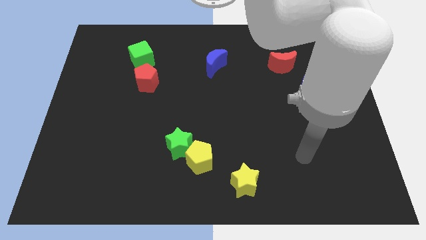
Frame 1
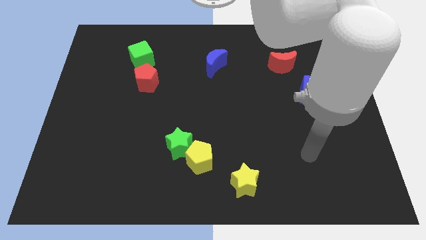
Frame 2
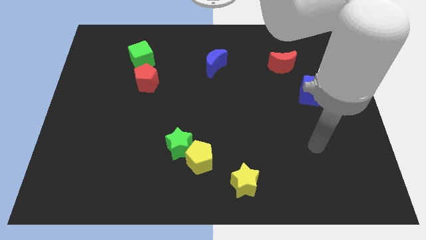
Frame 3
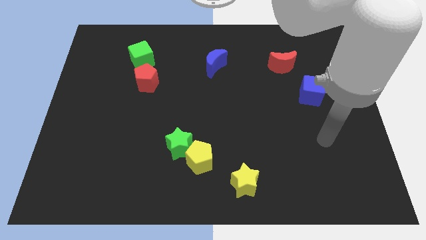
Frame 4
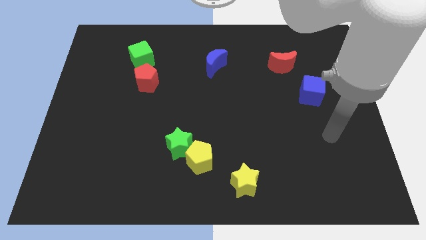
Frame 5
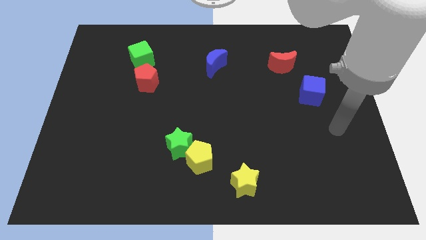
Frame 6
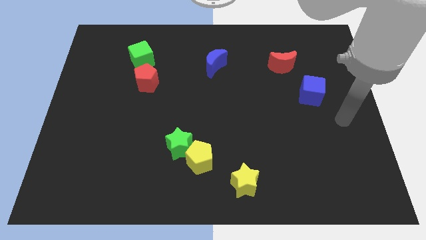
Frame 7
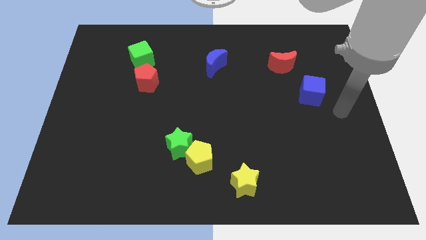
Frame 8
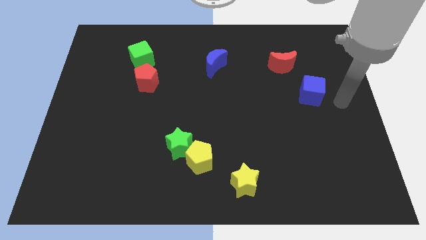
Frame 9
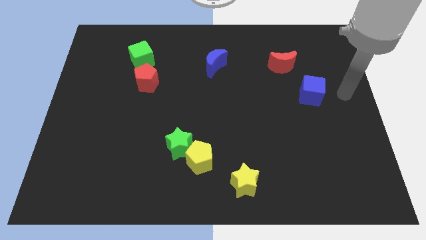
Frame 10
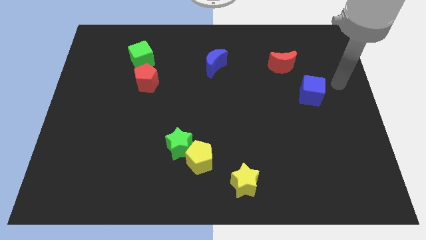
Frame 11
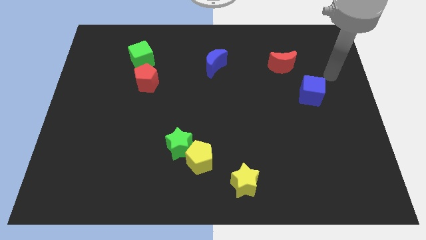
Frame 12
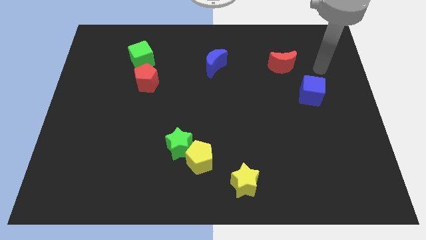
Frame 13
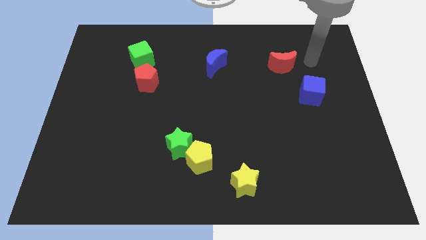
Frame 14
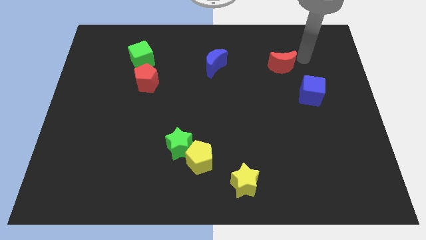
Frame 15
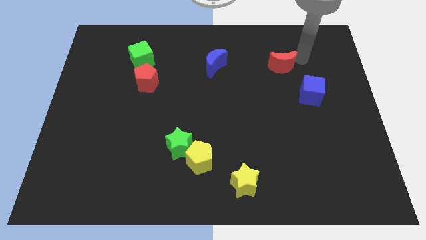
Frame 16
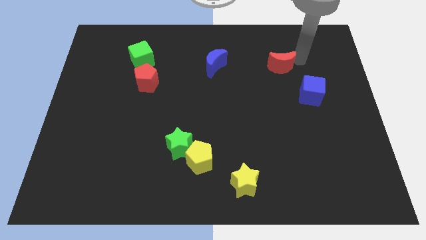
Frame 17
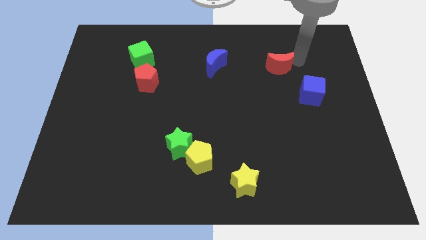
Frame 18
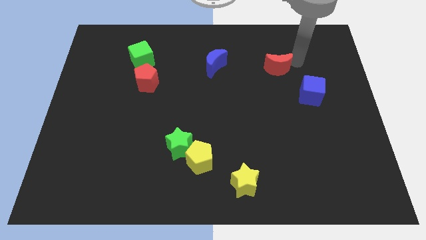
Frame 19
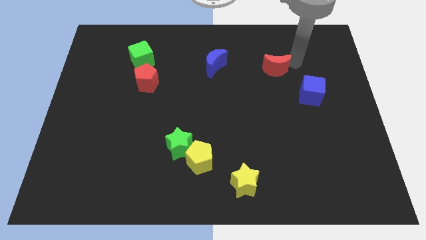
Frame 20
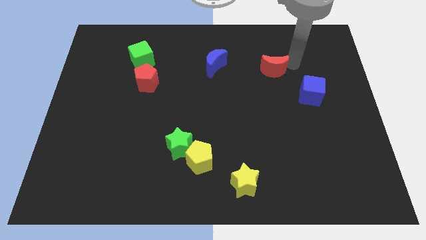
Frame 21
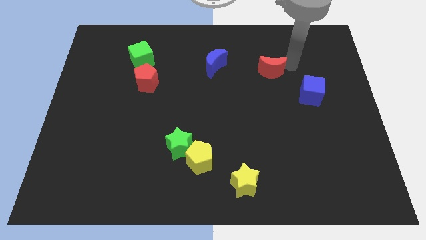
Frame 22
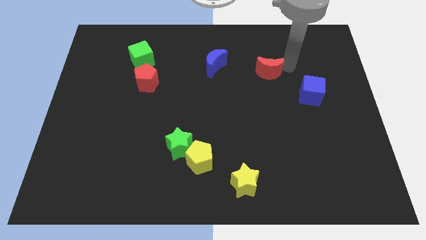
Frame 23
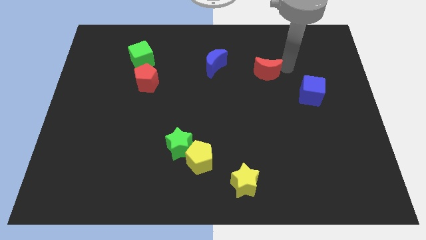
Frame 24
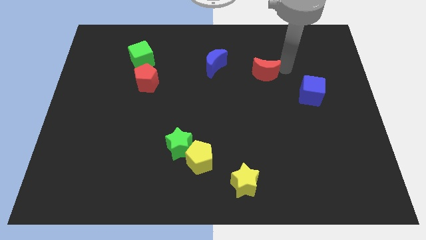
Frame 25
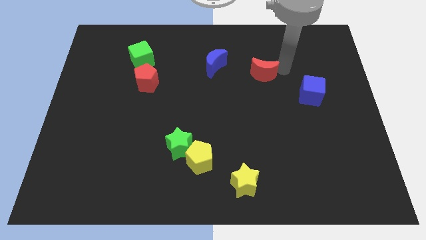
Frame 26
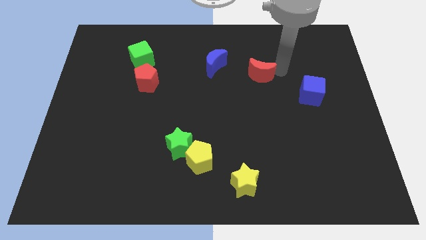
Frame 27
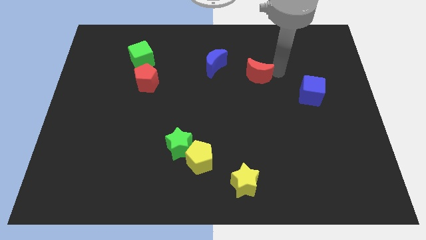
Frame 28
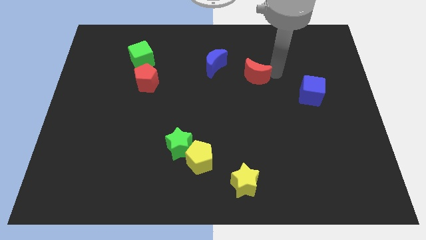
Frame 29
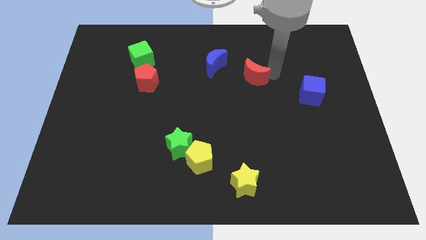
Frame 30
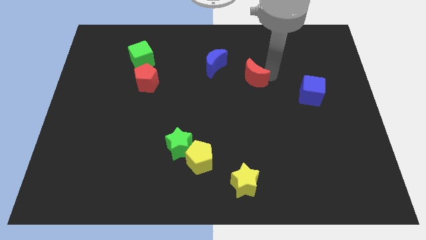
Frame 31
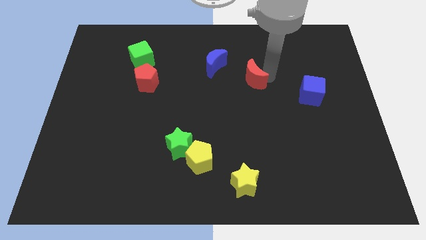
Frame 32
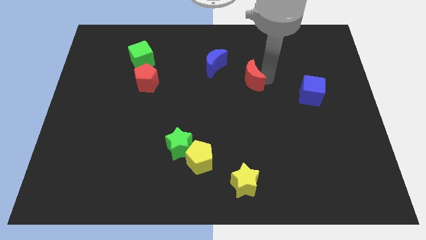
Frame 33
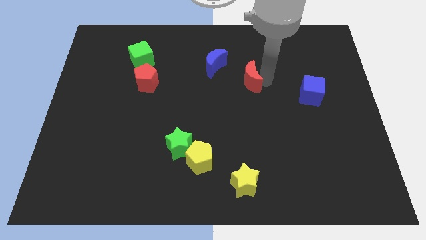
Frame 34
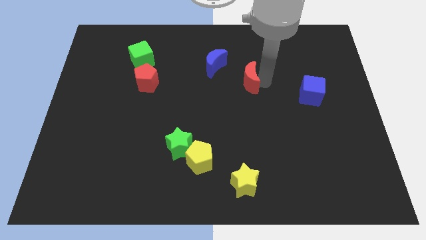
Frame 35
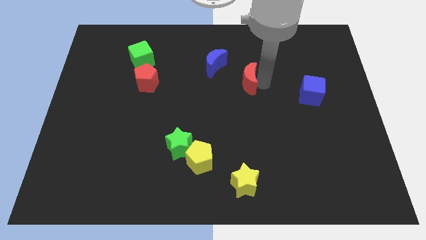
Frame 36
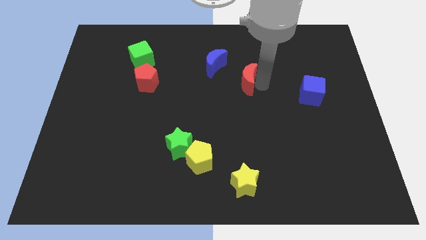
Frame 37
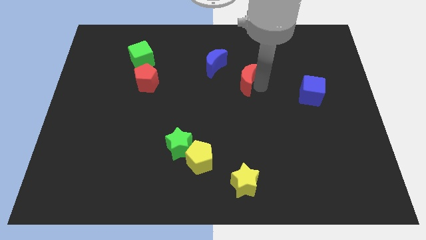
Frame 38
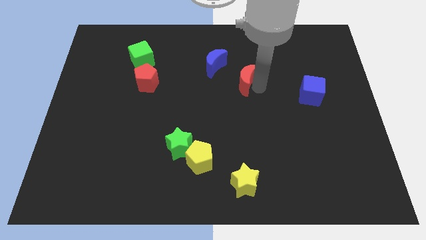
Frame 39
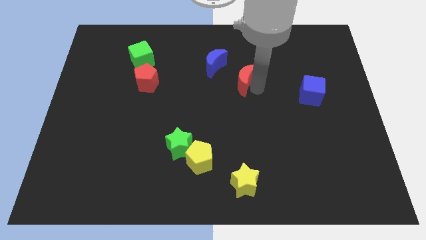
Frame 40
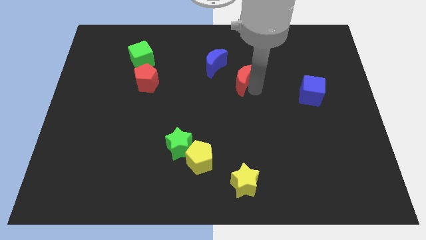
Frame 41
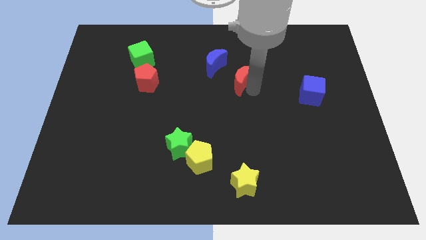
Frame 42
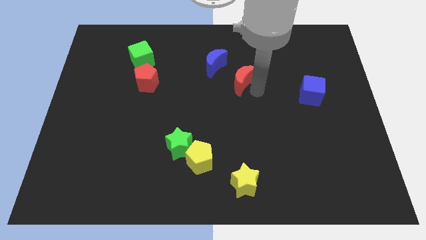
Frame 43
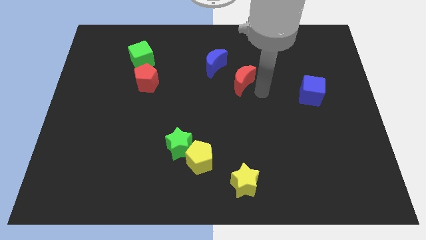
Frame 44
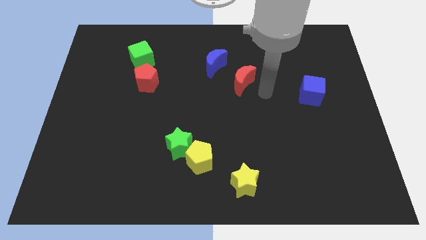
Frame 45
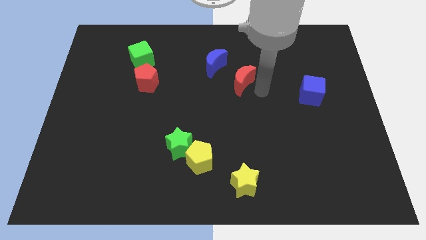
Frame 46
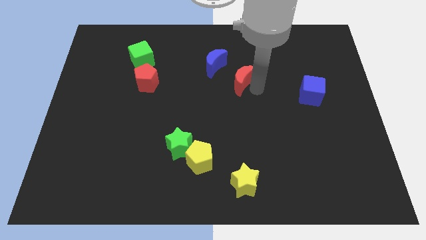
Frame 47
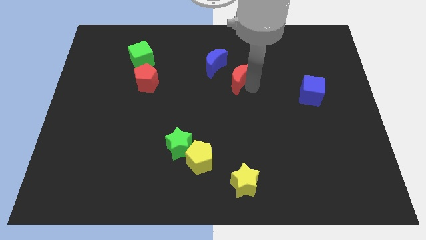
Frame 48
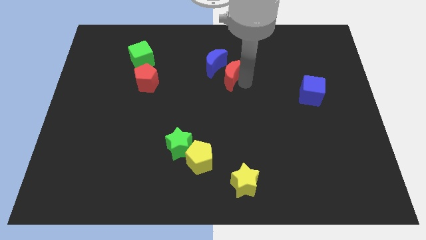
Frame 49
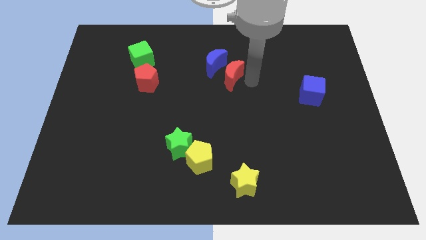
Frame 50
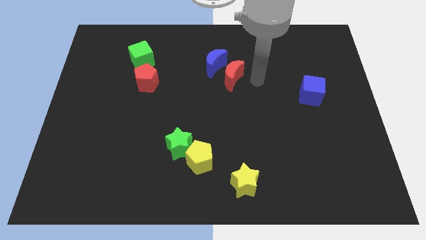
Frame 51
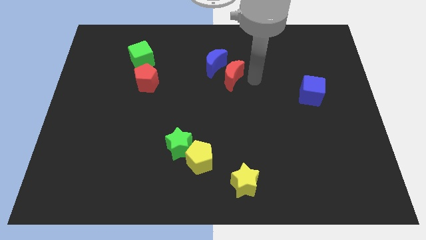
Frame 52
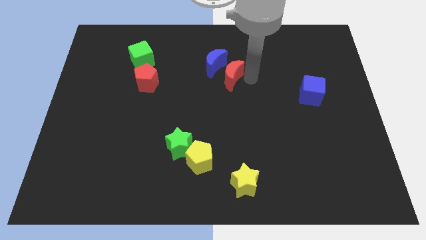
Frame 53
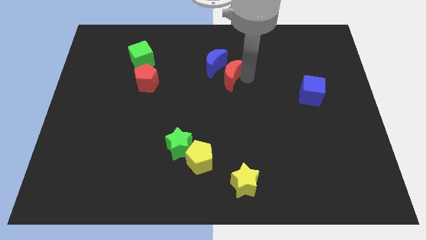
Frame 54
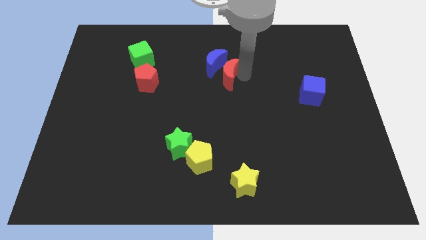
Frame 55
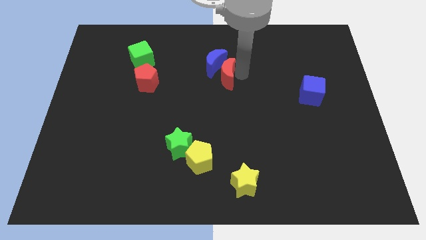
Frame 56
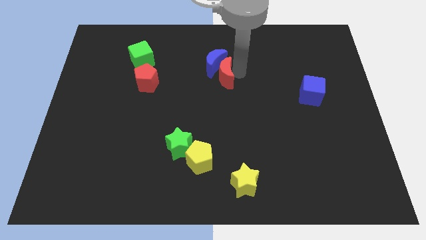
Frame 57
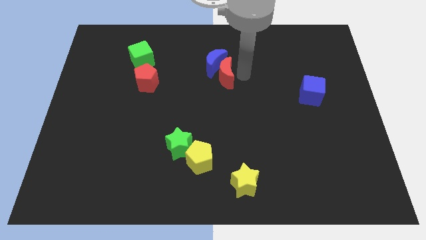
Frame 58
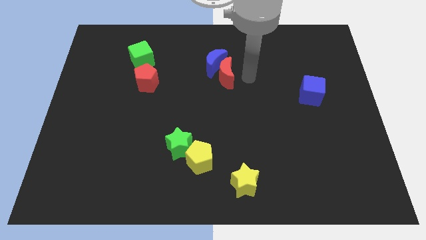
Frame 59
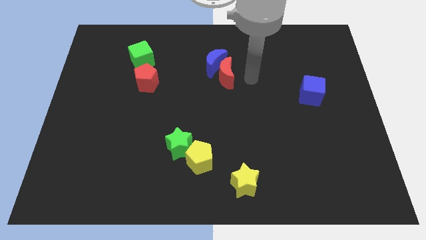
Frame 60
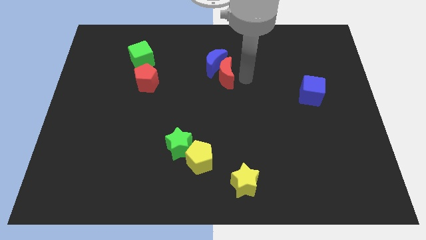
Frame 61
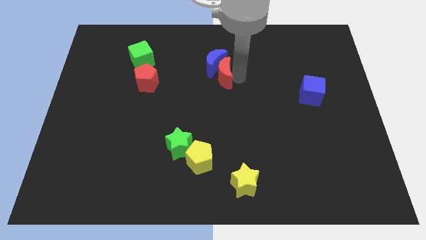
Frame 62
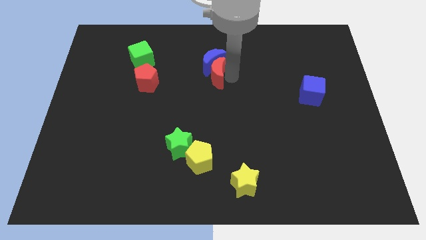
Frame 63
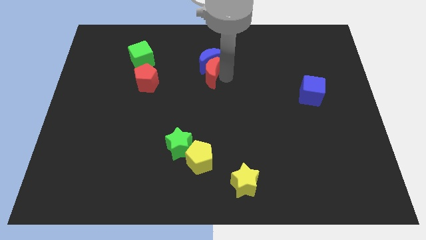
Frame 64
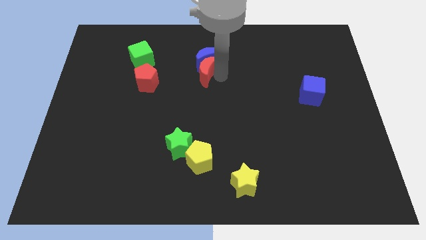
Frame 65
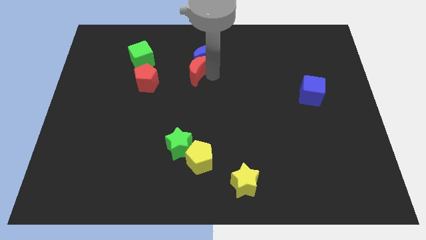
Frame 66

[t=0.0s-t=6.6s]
slide the red moon to the left

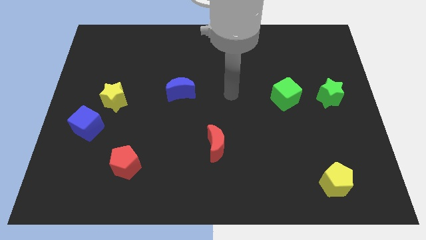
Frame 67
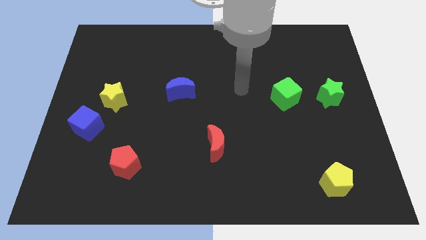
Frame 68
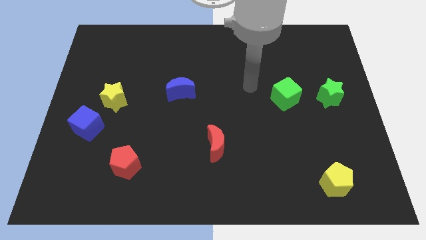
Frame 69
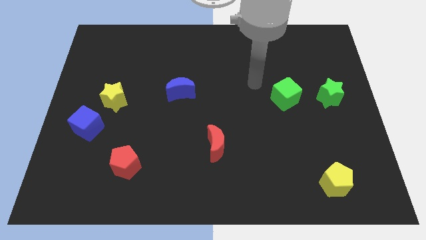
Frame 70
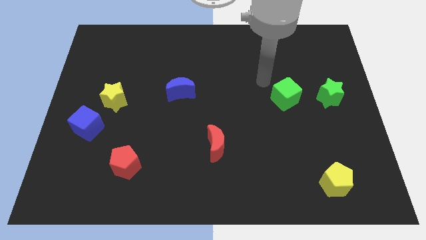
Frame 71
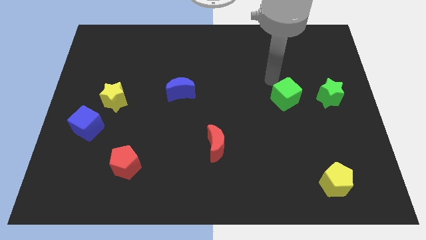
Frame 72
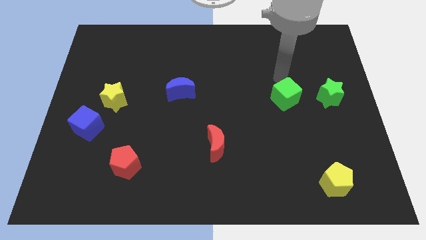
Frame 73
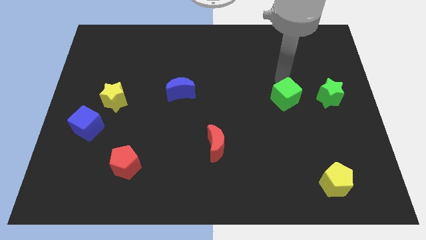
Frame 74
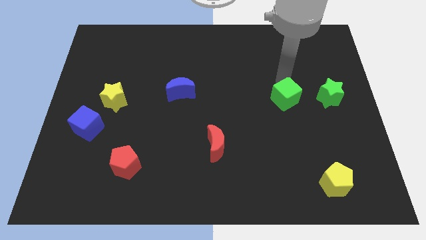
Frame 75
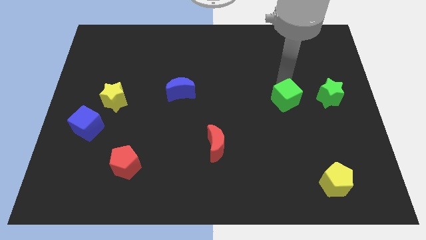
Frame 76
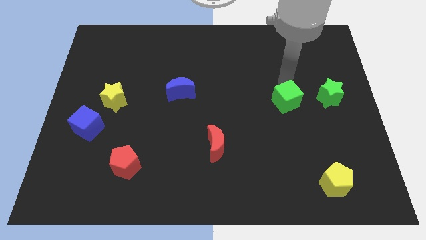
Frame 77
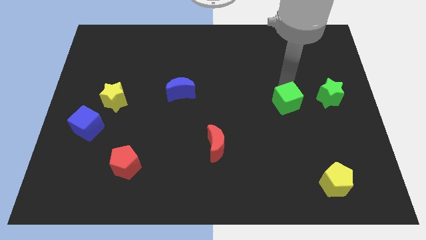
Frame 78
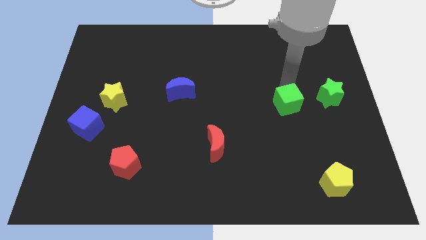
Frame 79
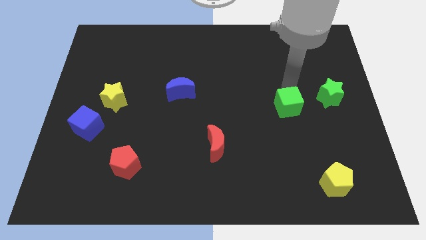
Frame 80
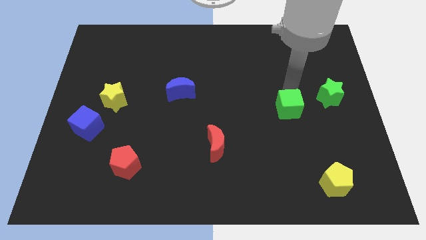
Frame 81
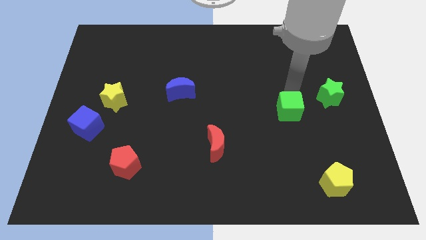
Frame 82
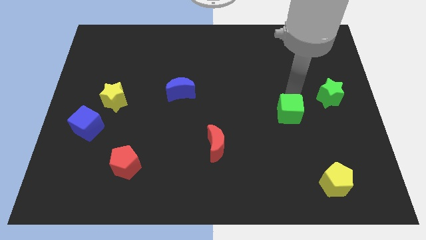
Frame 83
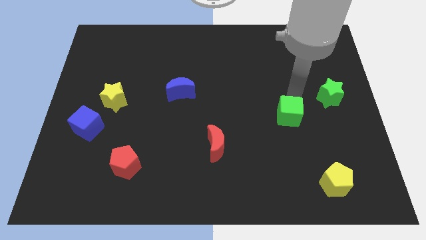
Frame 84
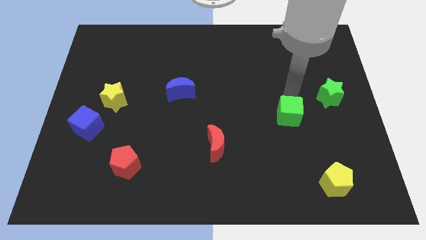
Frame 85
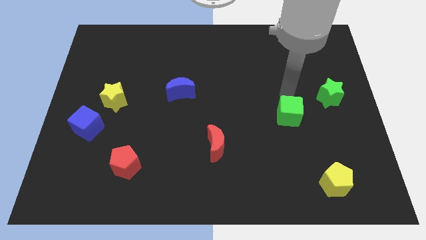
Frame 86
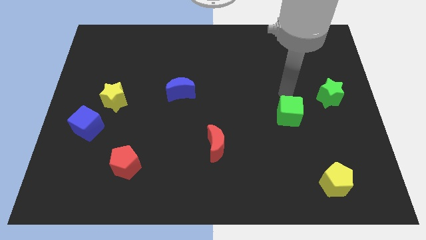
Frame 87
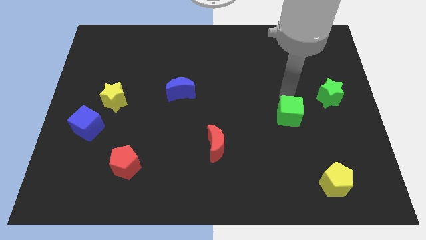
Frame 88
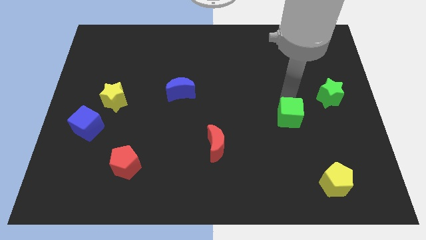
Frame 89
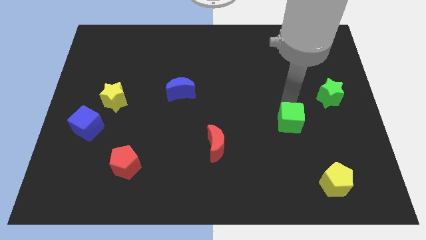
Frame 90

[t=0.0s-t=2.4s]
slide the green cube a bit down
